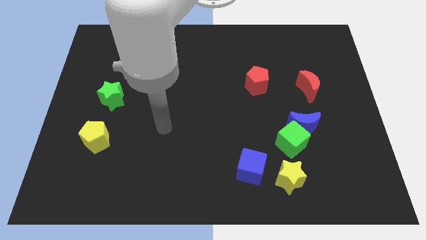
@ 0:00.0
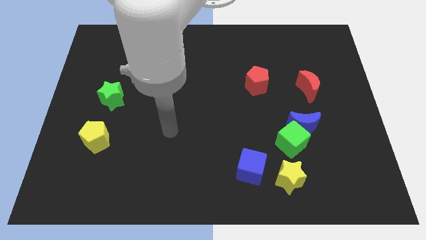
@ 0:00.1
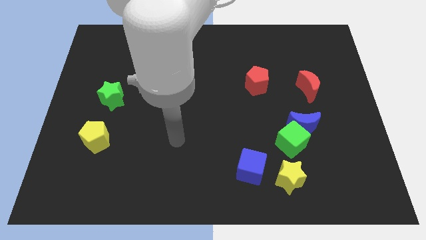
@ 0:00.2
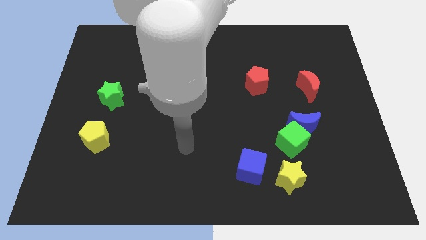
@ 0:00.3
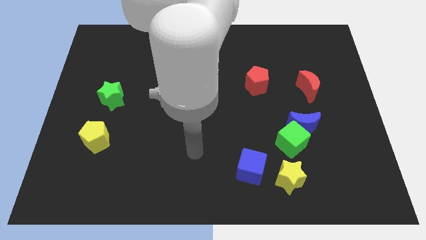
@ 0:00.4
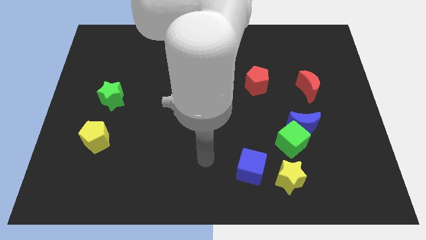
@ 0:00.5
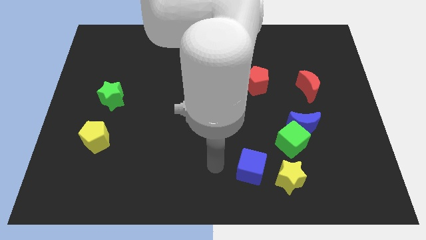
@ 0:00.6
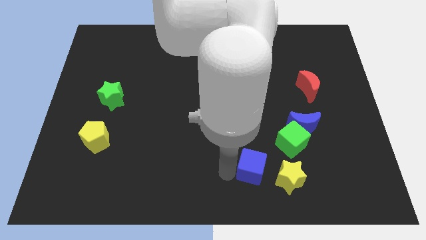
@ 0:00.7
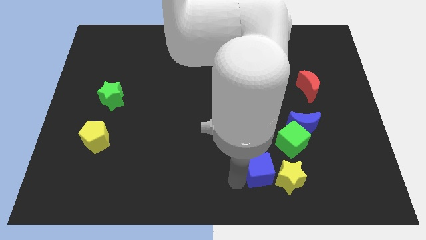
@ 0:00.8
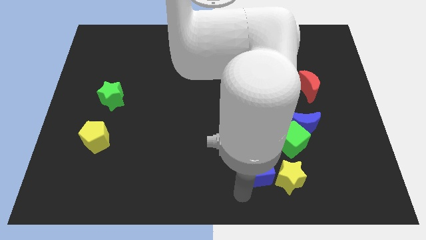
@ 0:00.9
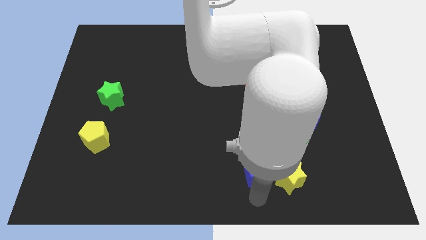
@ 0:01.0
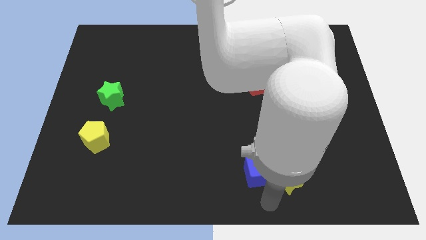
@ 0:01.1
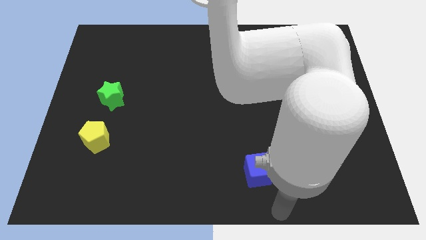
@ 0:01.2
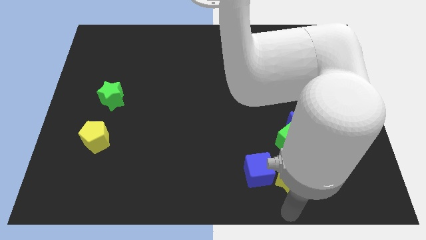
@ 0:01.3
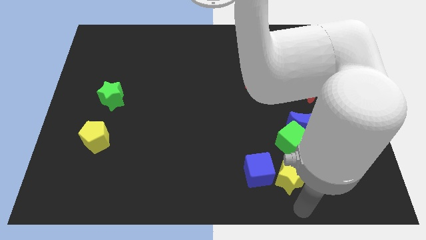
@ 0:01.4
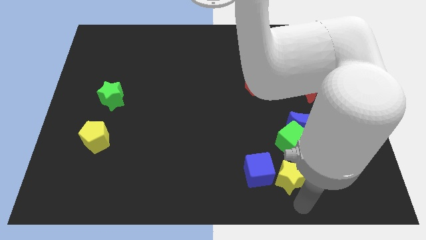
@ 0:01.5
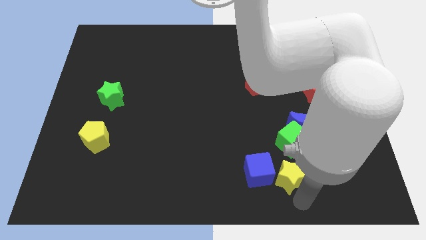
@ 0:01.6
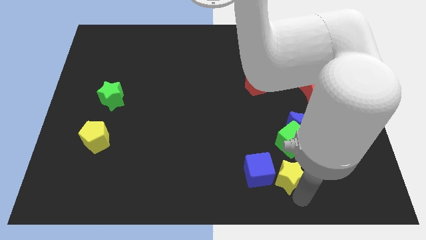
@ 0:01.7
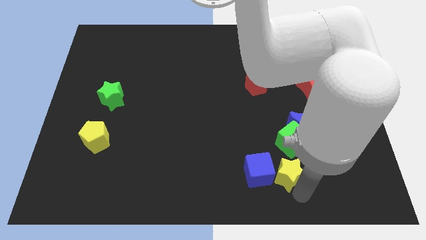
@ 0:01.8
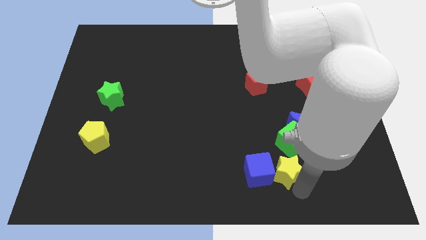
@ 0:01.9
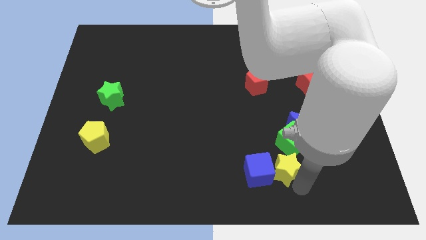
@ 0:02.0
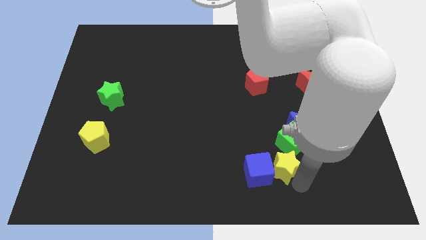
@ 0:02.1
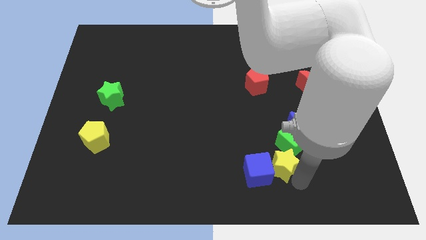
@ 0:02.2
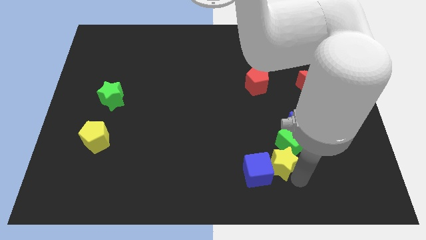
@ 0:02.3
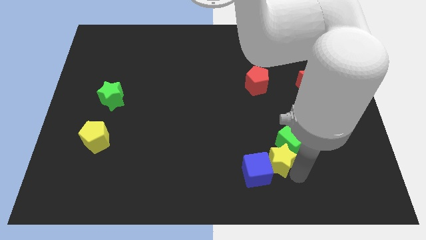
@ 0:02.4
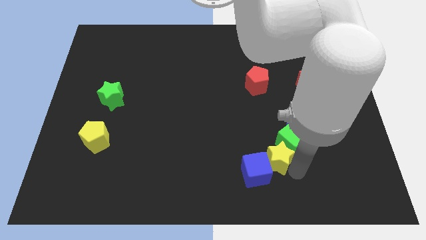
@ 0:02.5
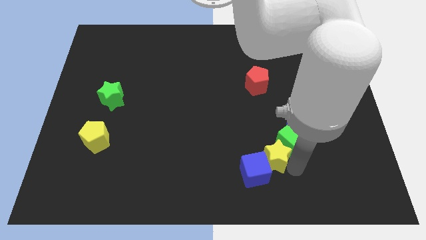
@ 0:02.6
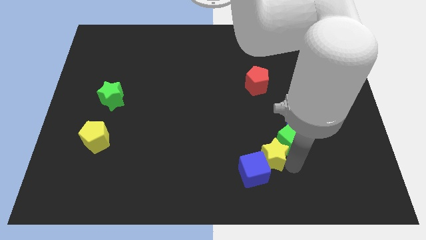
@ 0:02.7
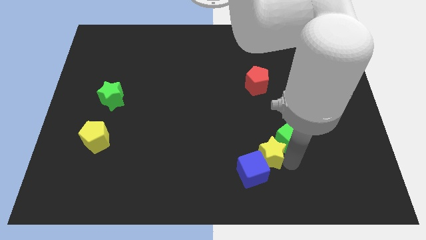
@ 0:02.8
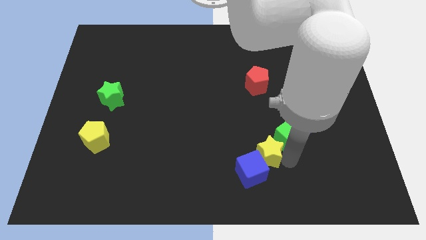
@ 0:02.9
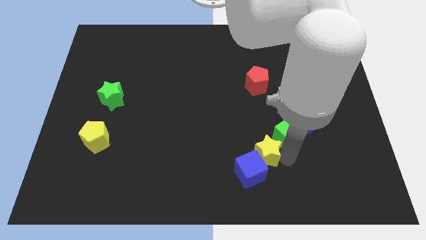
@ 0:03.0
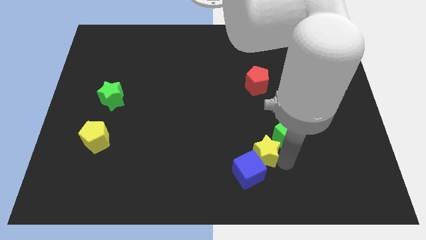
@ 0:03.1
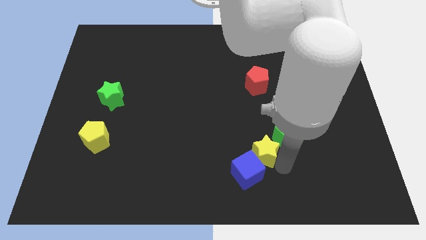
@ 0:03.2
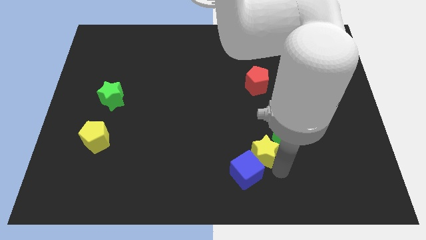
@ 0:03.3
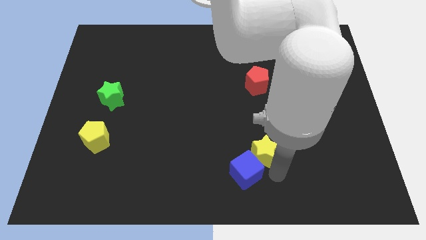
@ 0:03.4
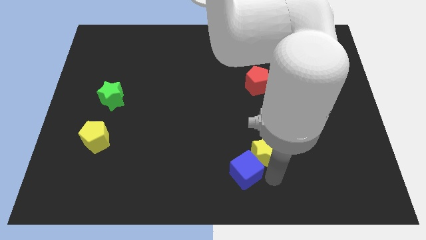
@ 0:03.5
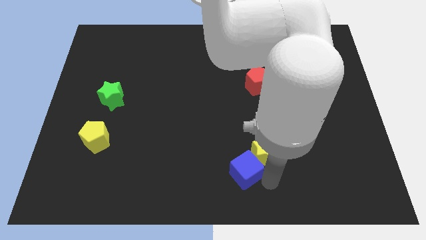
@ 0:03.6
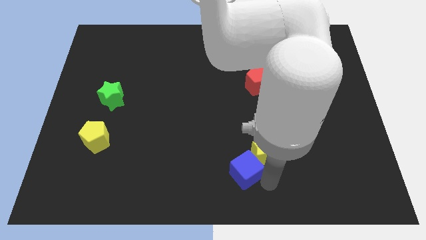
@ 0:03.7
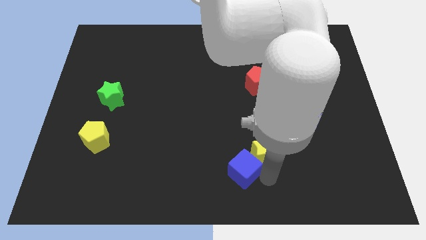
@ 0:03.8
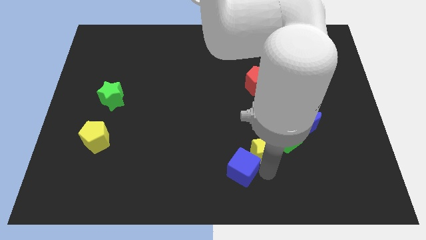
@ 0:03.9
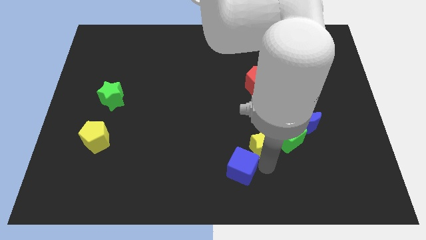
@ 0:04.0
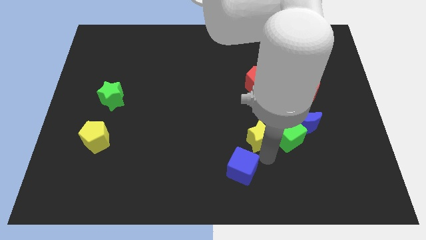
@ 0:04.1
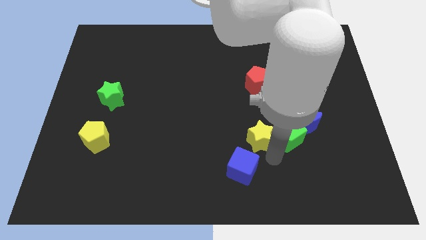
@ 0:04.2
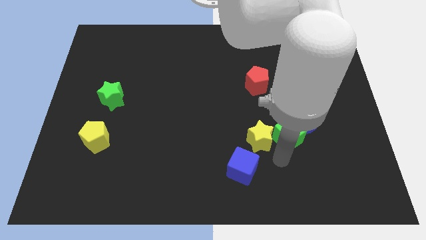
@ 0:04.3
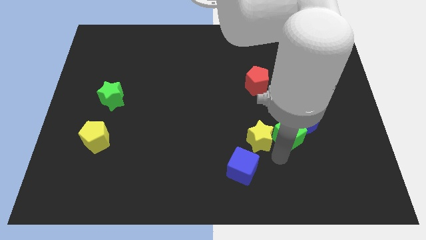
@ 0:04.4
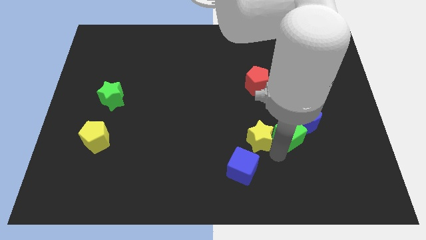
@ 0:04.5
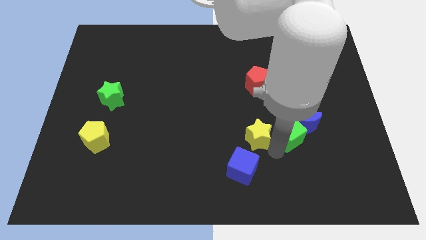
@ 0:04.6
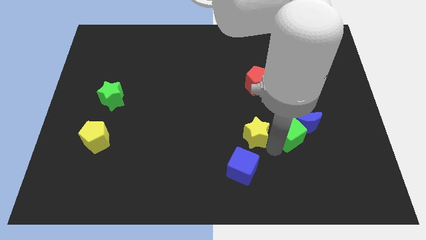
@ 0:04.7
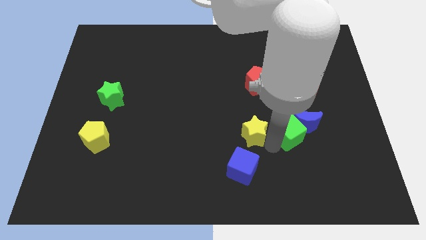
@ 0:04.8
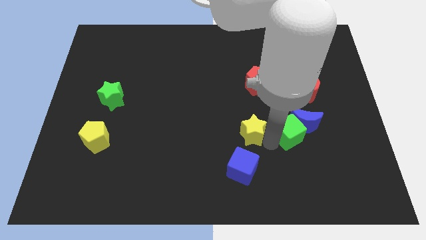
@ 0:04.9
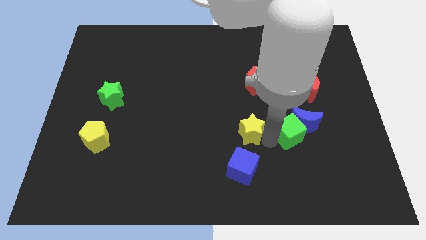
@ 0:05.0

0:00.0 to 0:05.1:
slide the yellow star to the center

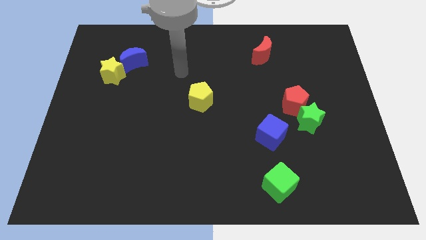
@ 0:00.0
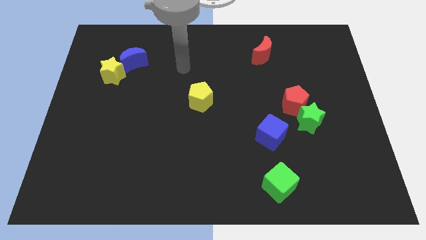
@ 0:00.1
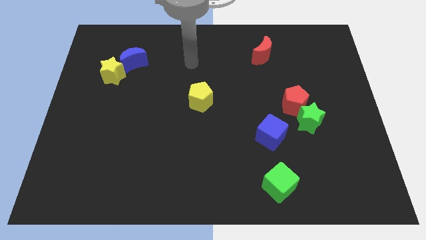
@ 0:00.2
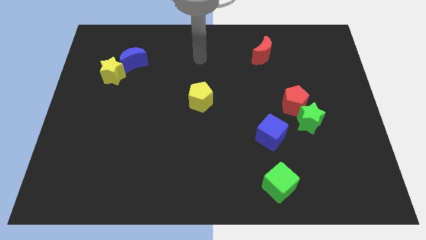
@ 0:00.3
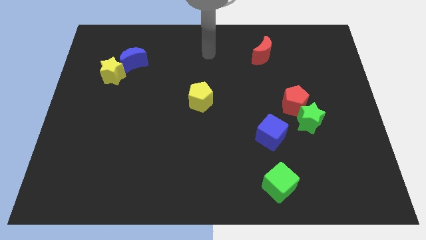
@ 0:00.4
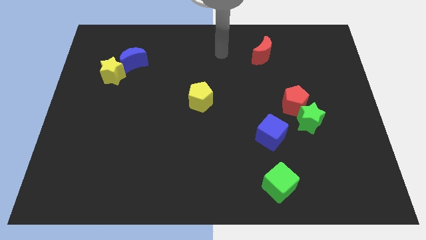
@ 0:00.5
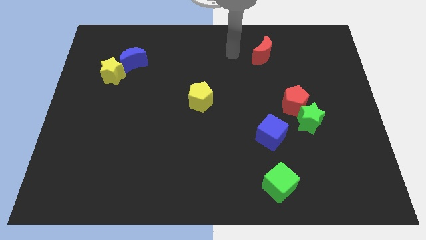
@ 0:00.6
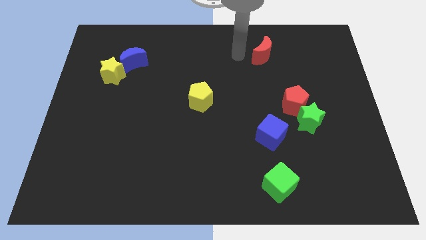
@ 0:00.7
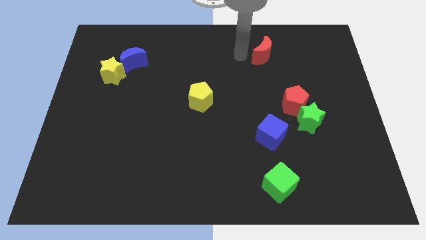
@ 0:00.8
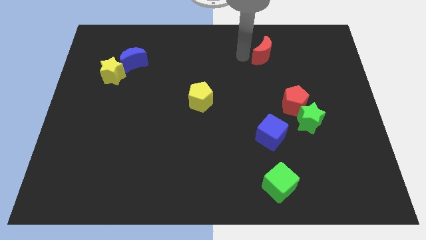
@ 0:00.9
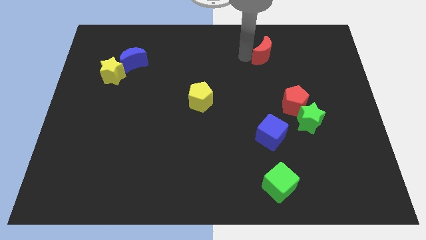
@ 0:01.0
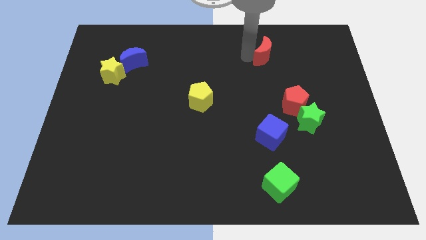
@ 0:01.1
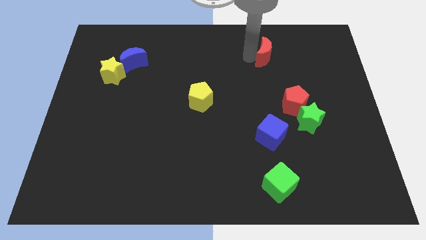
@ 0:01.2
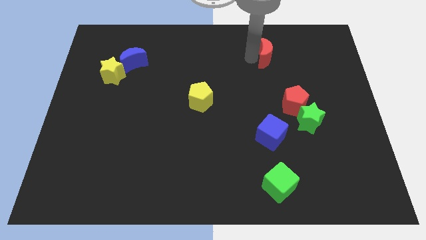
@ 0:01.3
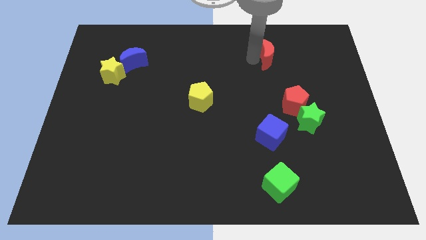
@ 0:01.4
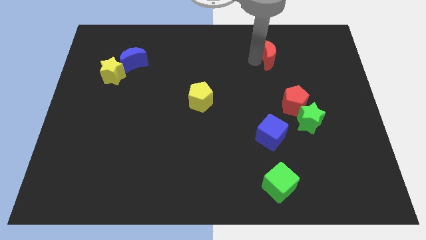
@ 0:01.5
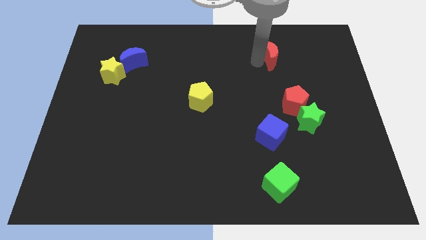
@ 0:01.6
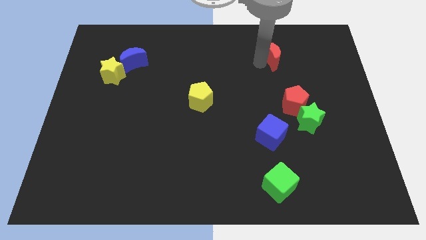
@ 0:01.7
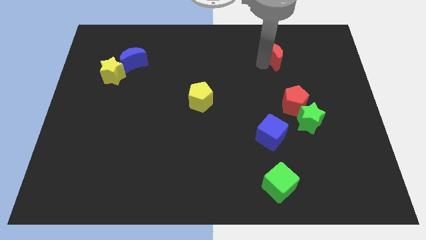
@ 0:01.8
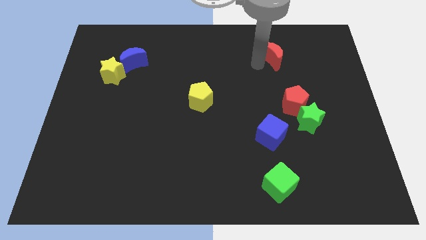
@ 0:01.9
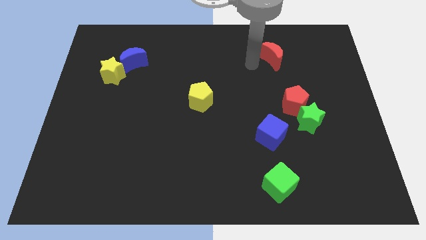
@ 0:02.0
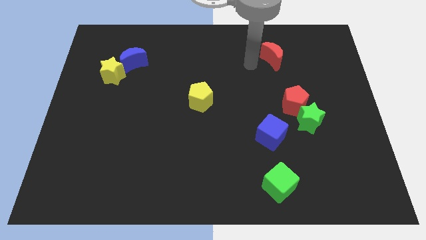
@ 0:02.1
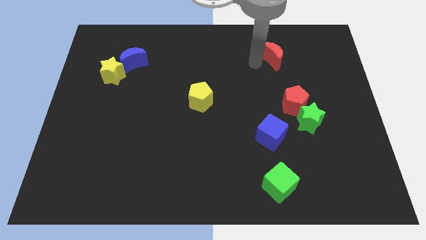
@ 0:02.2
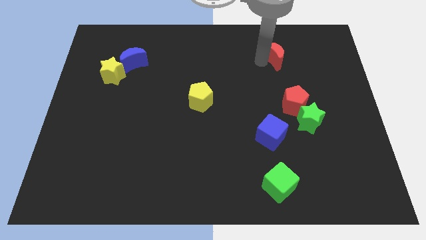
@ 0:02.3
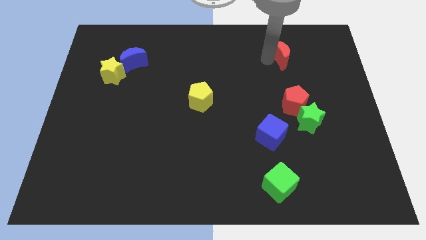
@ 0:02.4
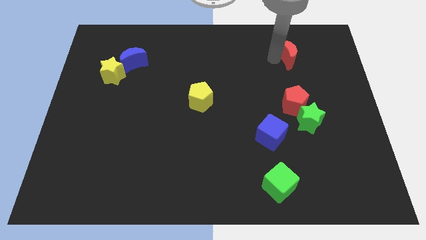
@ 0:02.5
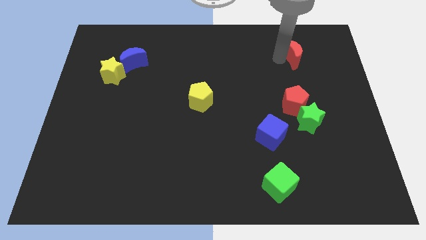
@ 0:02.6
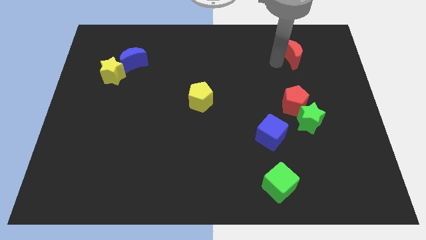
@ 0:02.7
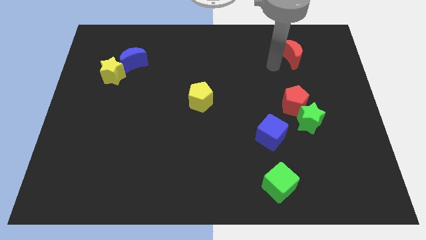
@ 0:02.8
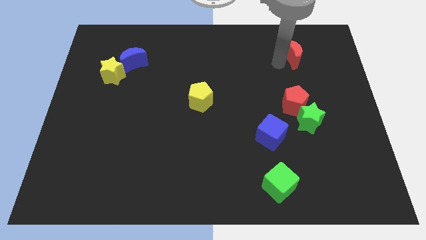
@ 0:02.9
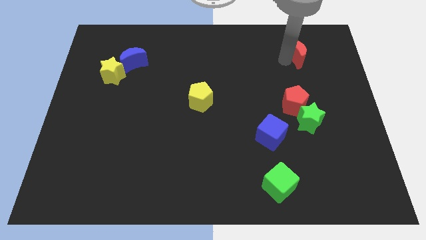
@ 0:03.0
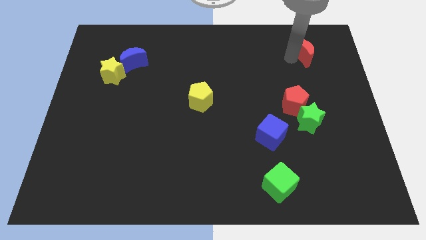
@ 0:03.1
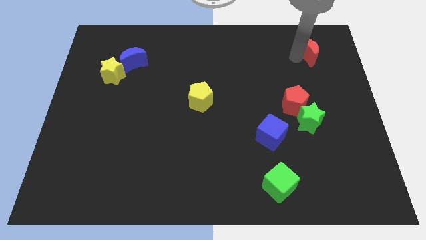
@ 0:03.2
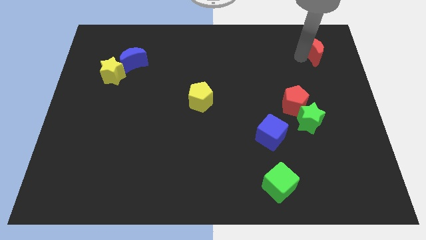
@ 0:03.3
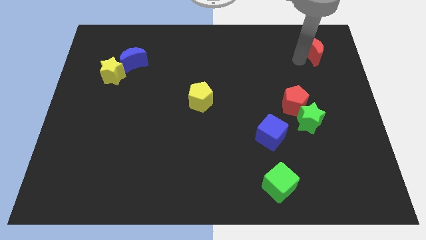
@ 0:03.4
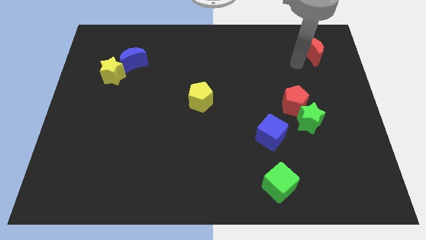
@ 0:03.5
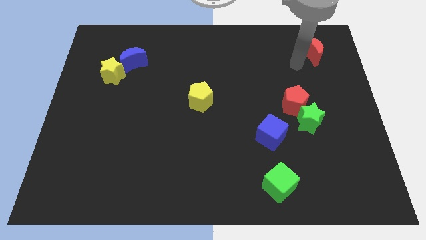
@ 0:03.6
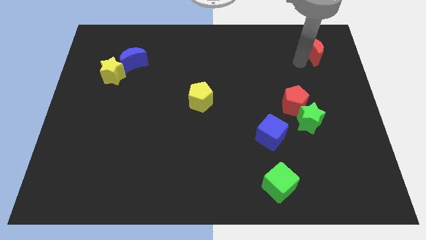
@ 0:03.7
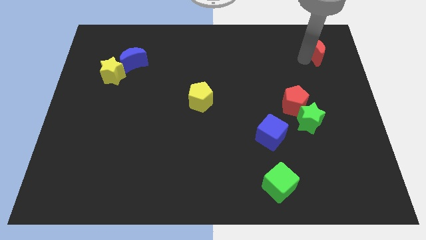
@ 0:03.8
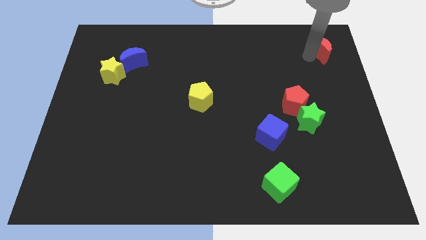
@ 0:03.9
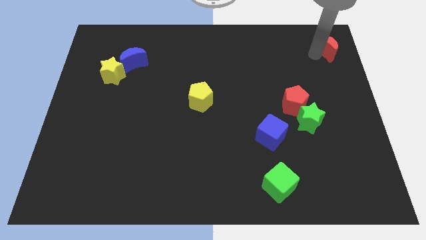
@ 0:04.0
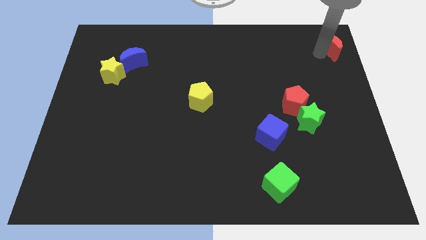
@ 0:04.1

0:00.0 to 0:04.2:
push the red moon to the top right
